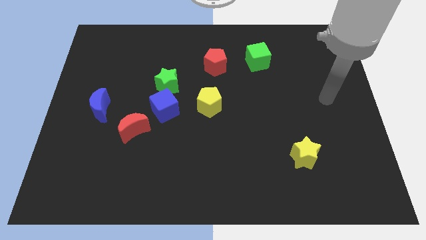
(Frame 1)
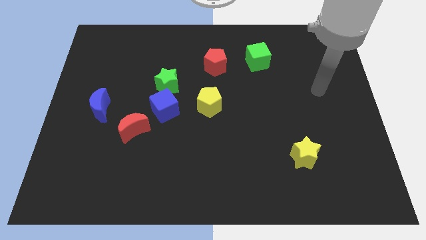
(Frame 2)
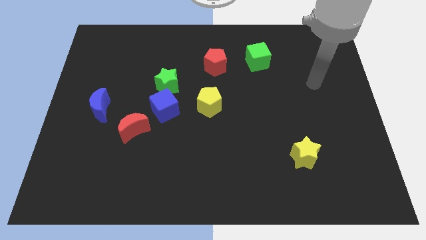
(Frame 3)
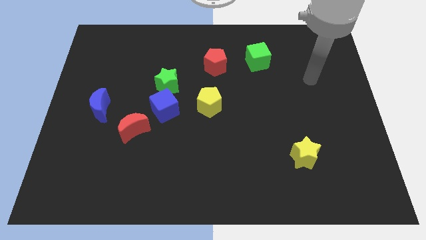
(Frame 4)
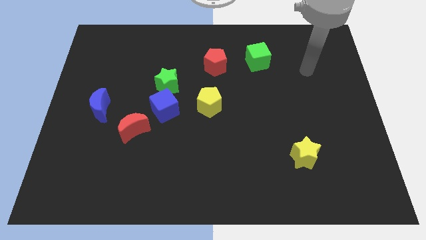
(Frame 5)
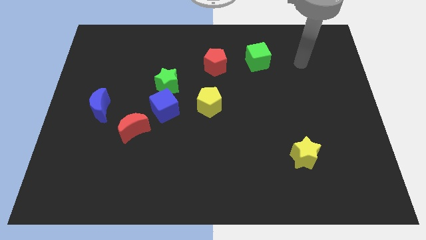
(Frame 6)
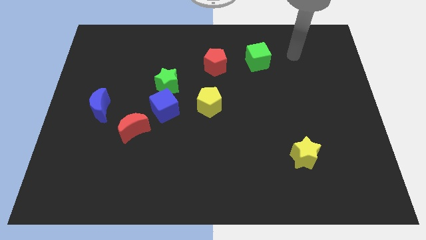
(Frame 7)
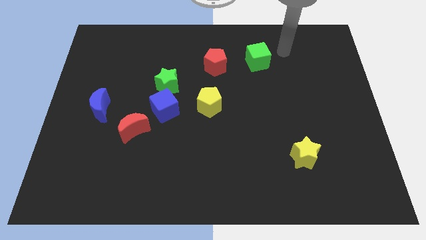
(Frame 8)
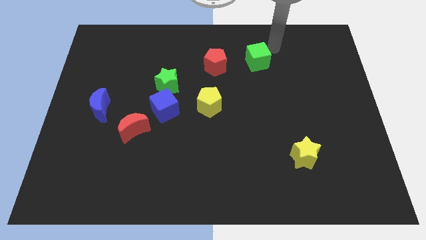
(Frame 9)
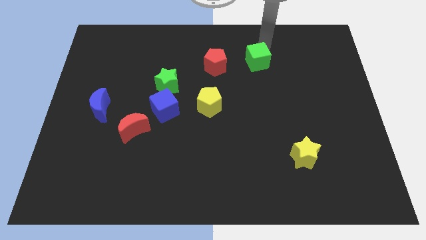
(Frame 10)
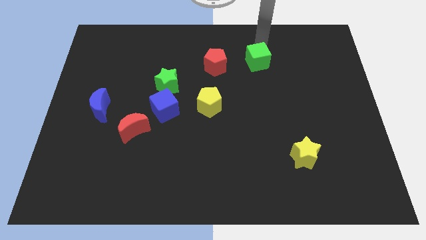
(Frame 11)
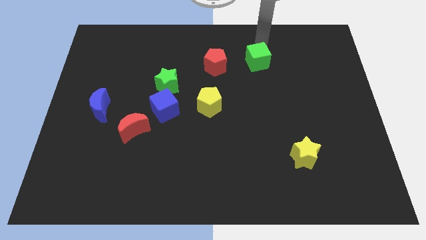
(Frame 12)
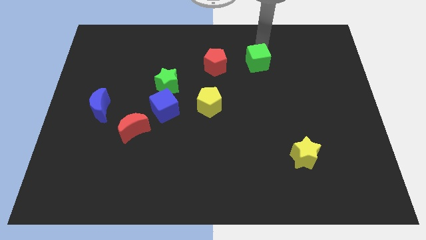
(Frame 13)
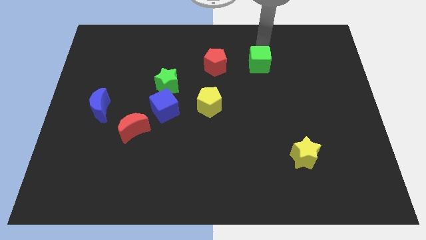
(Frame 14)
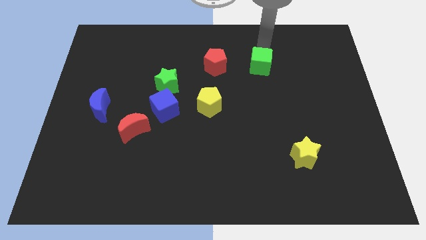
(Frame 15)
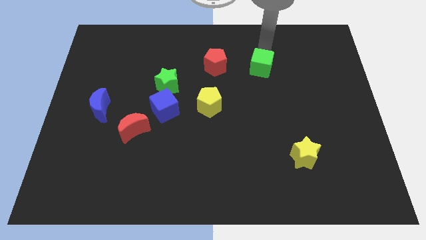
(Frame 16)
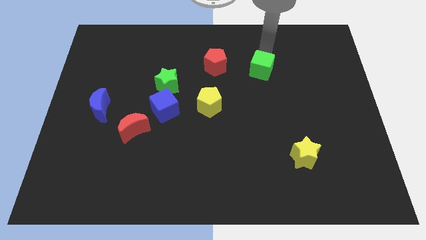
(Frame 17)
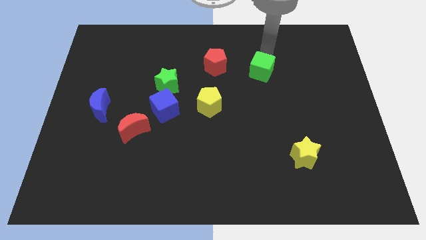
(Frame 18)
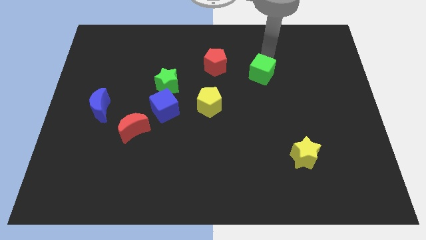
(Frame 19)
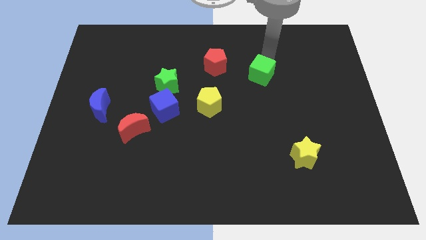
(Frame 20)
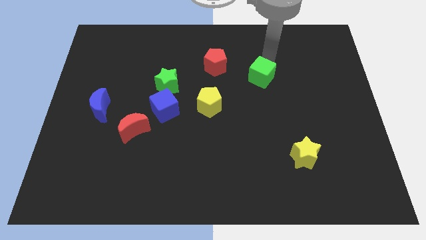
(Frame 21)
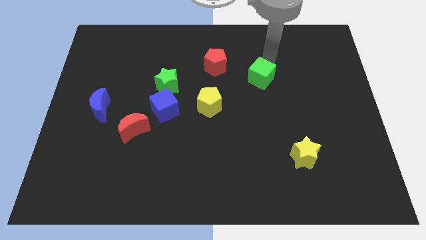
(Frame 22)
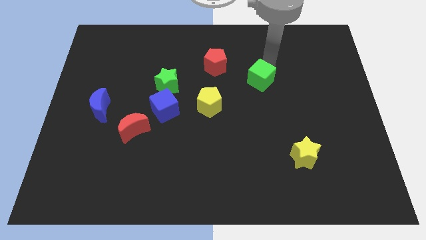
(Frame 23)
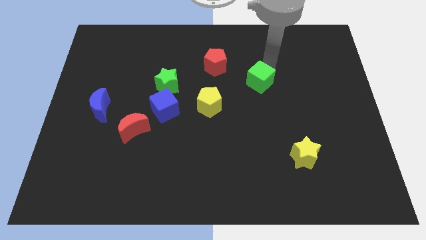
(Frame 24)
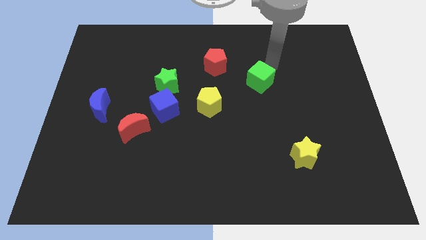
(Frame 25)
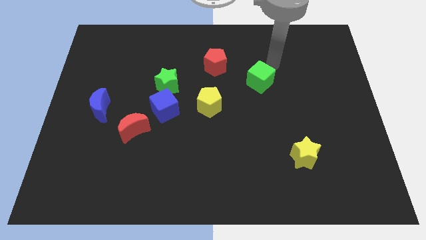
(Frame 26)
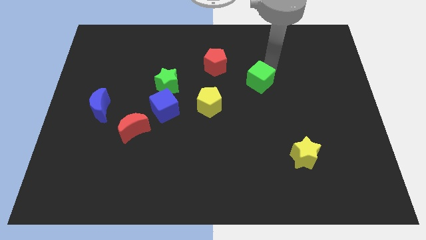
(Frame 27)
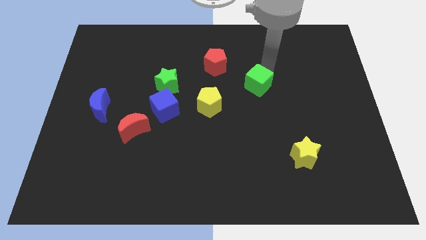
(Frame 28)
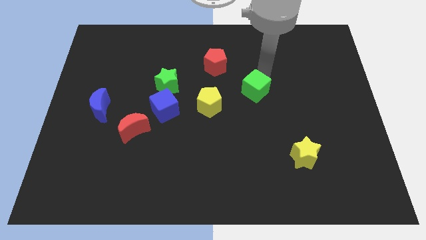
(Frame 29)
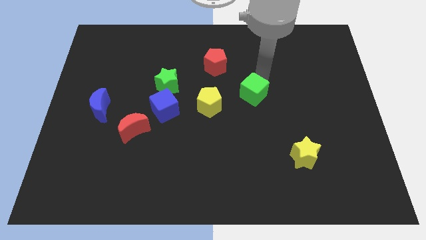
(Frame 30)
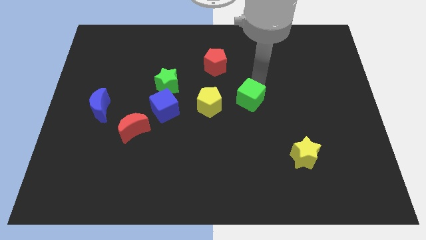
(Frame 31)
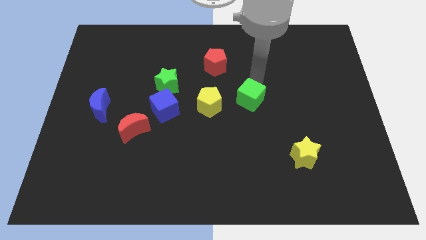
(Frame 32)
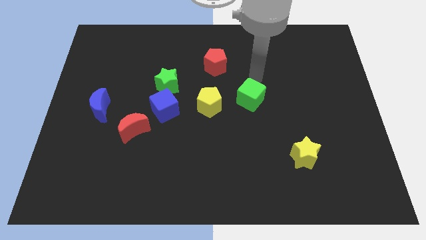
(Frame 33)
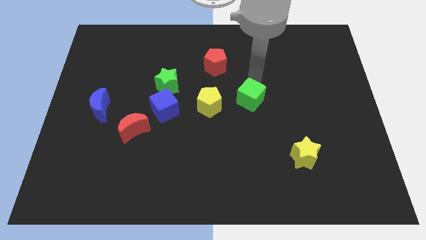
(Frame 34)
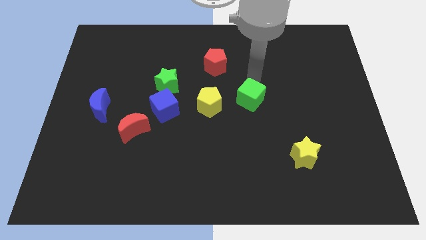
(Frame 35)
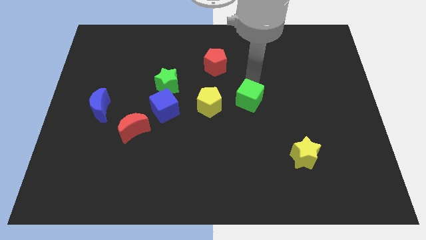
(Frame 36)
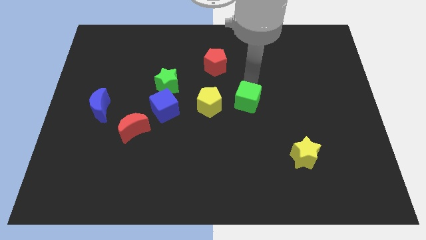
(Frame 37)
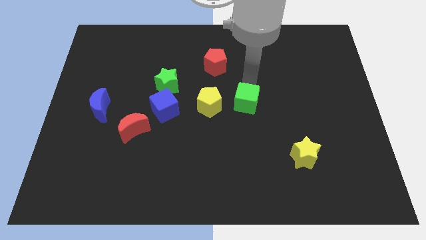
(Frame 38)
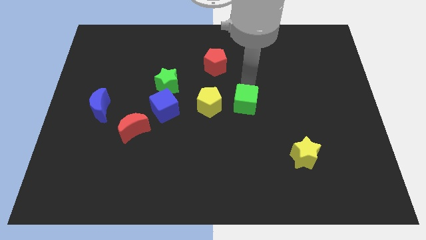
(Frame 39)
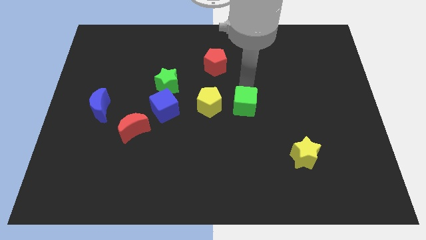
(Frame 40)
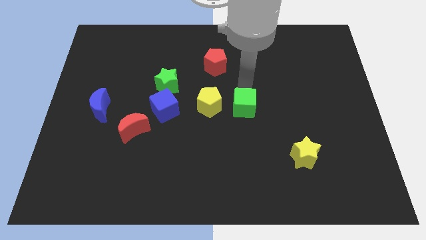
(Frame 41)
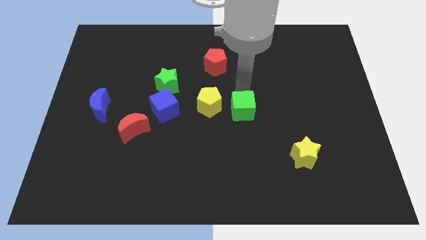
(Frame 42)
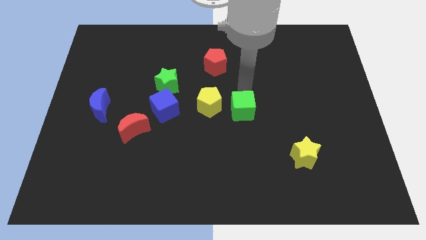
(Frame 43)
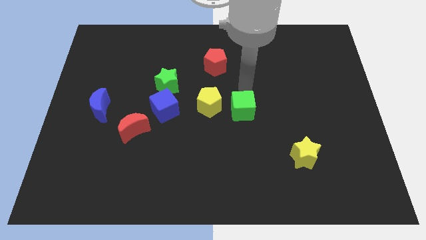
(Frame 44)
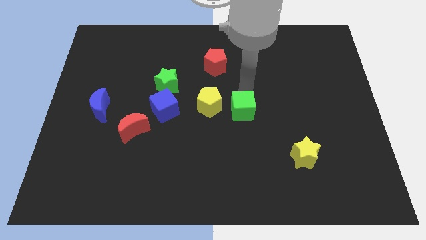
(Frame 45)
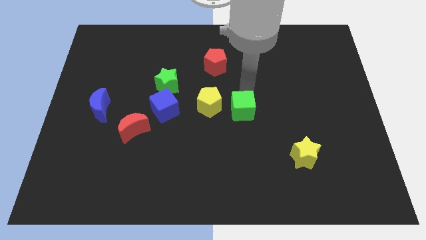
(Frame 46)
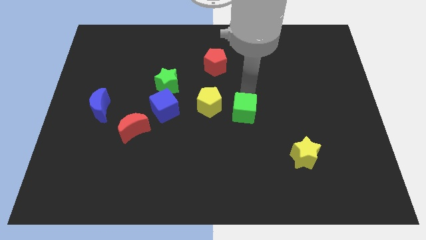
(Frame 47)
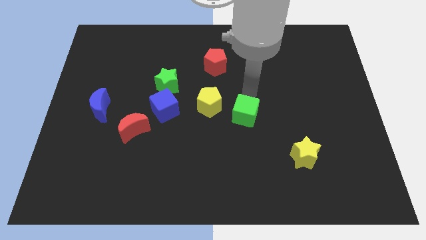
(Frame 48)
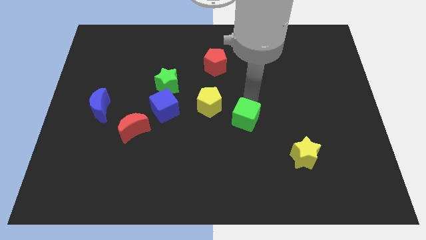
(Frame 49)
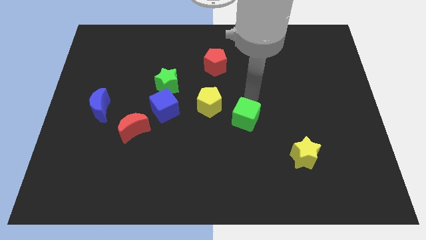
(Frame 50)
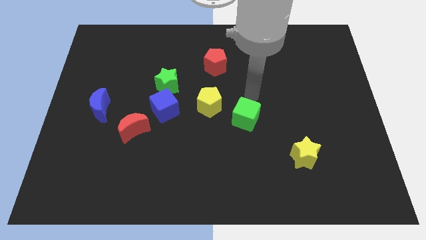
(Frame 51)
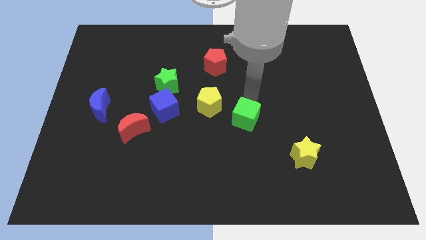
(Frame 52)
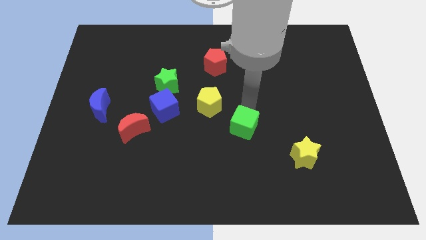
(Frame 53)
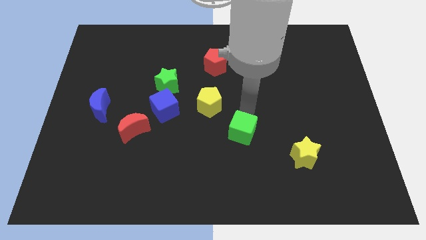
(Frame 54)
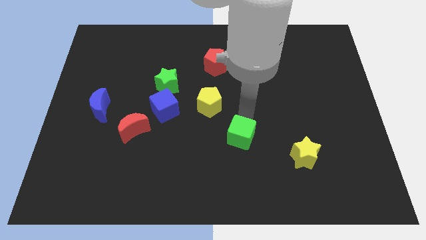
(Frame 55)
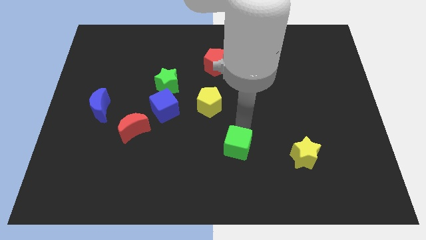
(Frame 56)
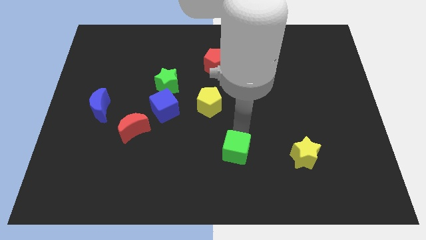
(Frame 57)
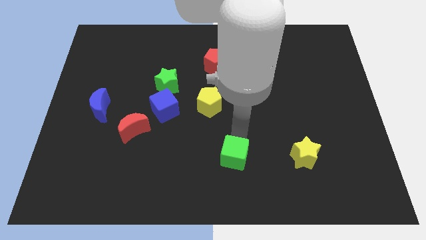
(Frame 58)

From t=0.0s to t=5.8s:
slide the green cube to the bottom side
